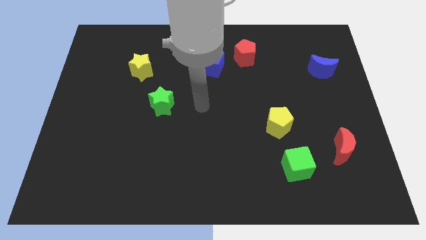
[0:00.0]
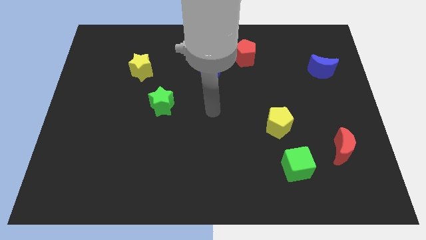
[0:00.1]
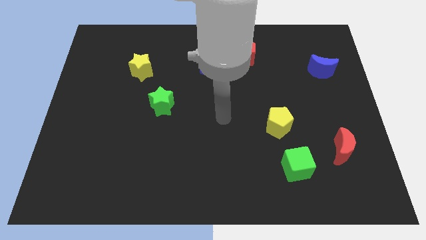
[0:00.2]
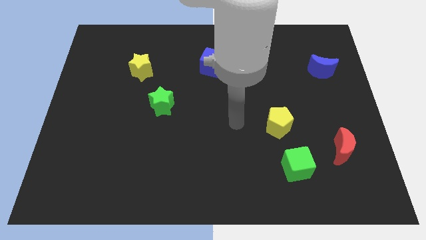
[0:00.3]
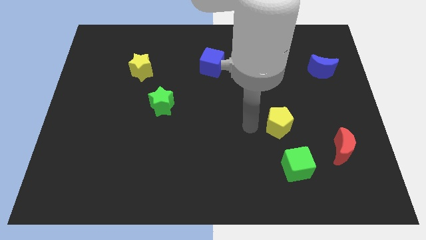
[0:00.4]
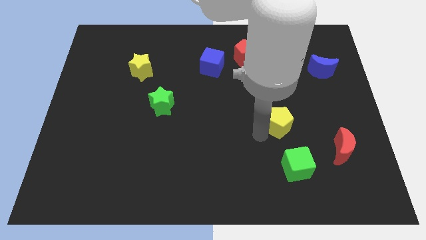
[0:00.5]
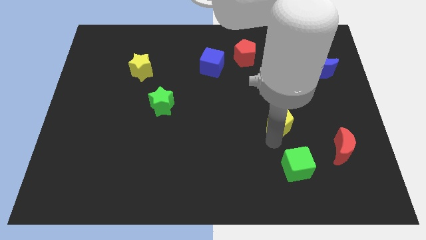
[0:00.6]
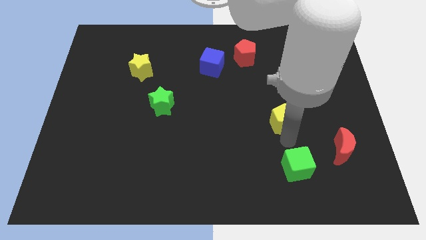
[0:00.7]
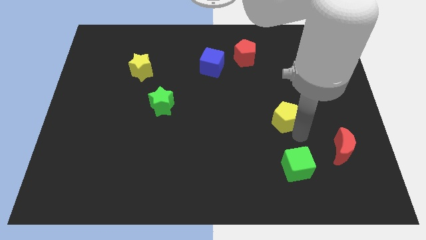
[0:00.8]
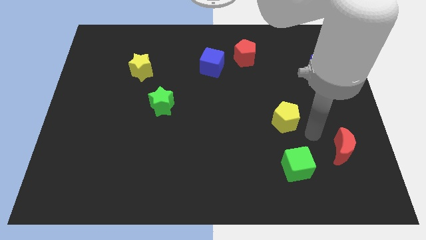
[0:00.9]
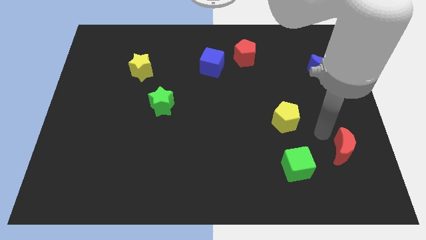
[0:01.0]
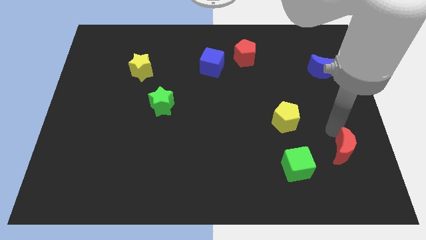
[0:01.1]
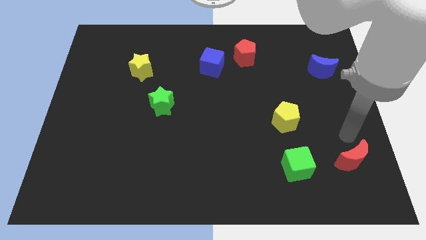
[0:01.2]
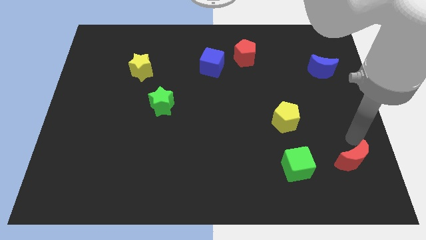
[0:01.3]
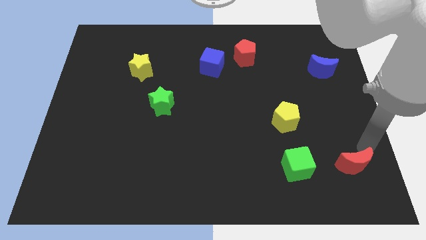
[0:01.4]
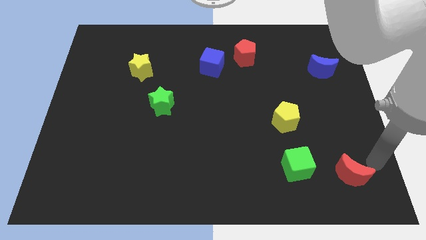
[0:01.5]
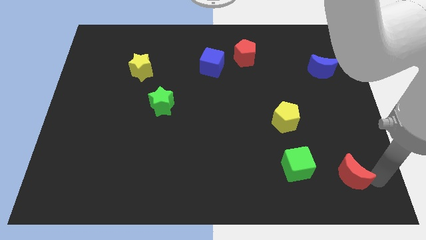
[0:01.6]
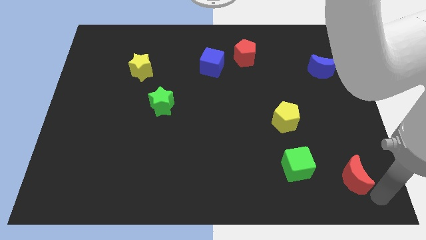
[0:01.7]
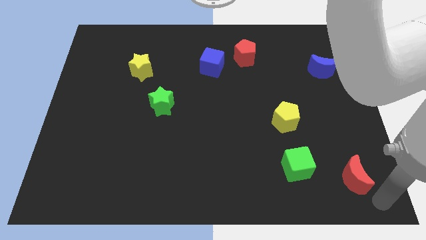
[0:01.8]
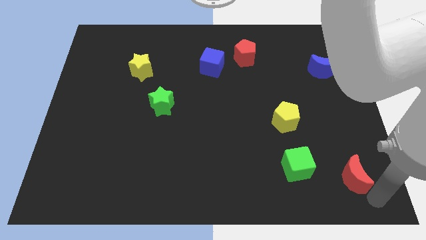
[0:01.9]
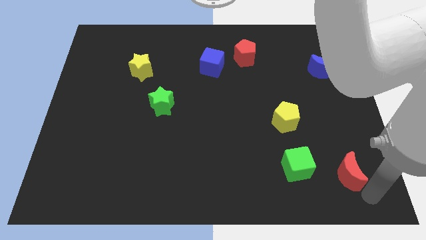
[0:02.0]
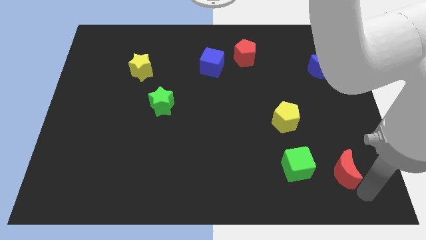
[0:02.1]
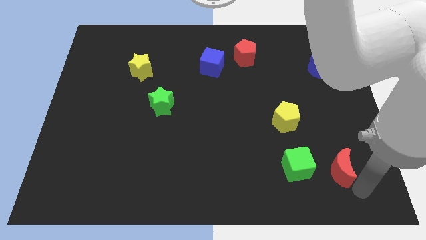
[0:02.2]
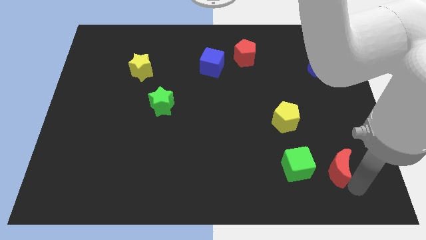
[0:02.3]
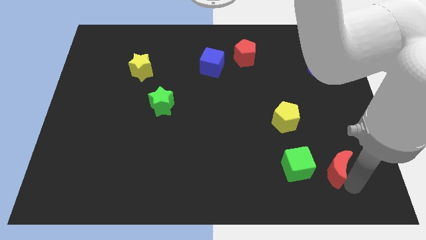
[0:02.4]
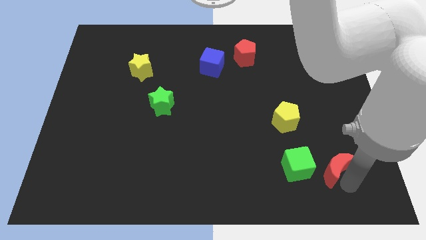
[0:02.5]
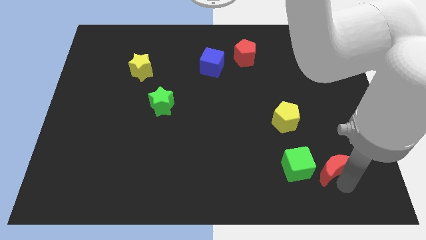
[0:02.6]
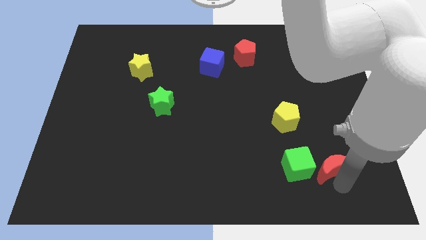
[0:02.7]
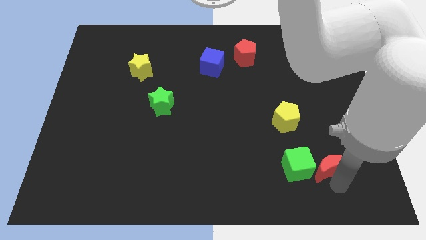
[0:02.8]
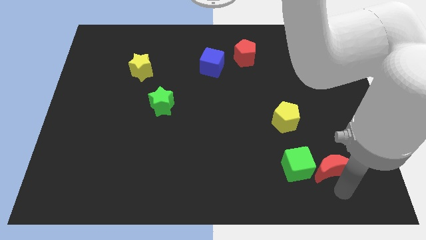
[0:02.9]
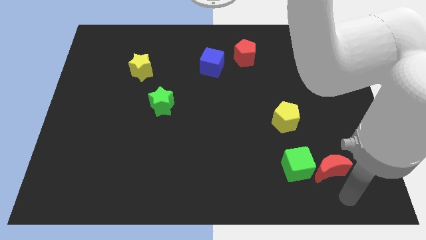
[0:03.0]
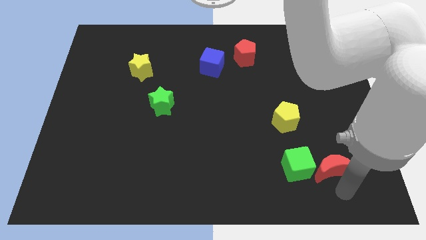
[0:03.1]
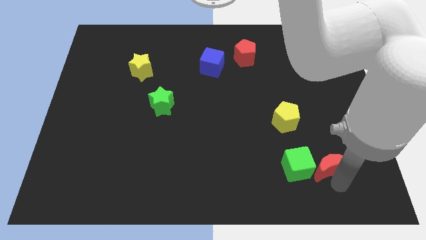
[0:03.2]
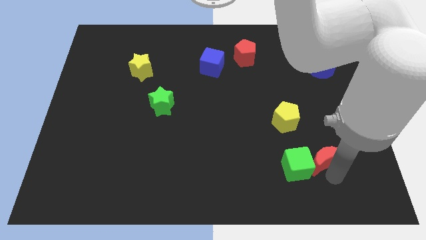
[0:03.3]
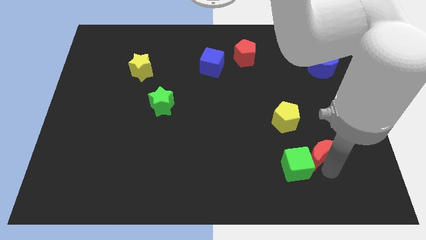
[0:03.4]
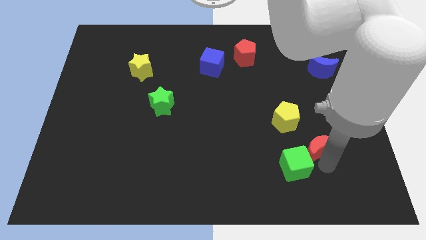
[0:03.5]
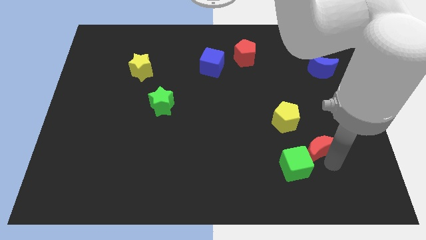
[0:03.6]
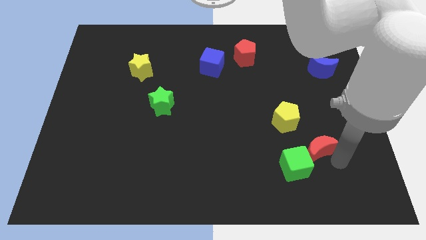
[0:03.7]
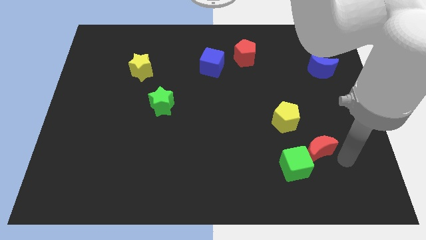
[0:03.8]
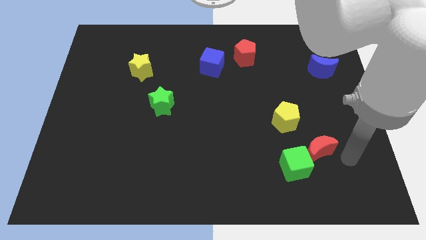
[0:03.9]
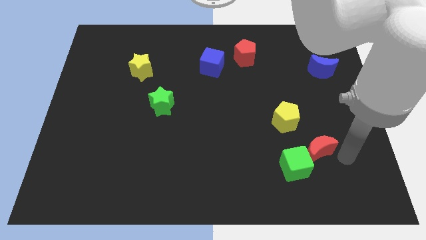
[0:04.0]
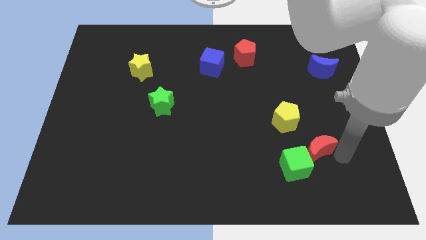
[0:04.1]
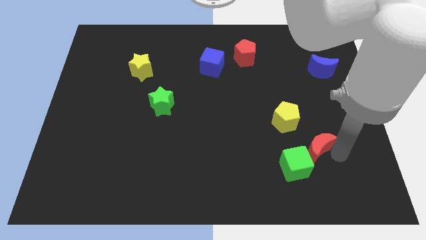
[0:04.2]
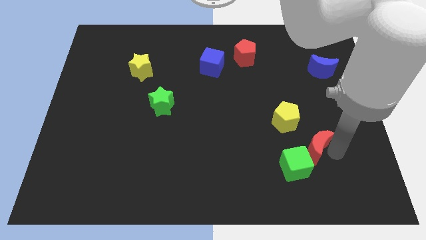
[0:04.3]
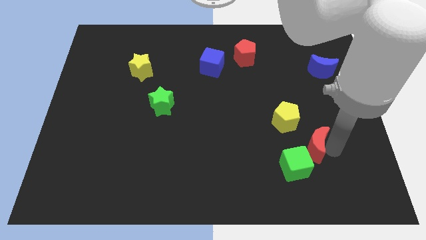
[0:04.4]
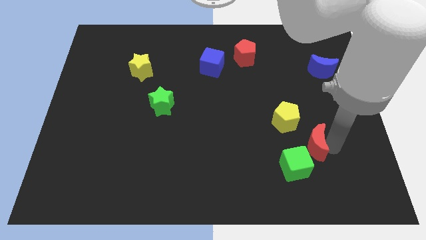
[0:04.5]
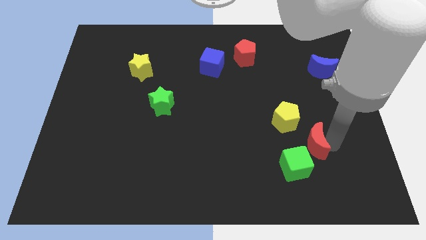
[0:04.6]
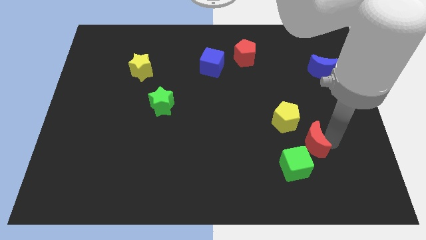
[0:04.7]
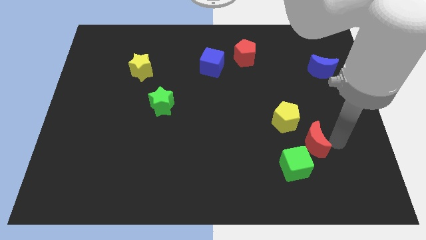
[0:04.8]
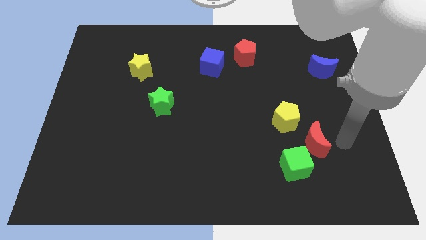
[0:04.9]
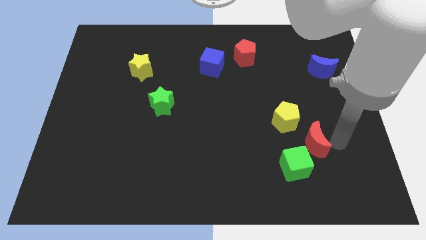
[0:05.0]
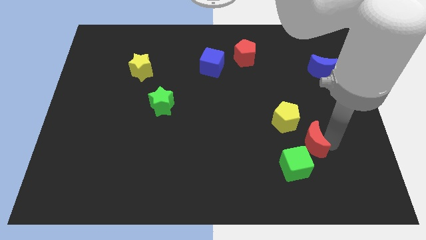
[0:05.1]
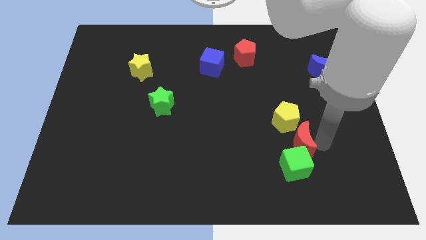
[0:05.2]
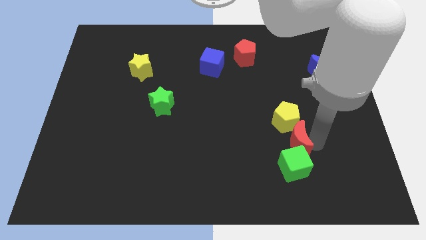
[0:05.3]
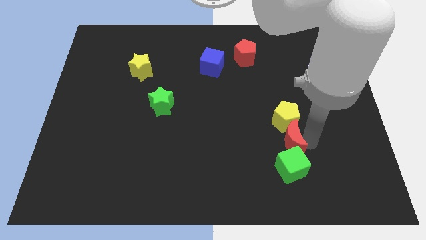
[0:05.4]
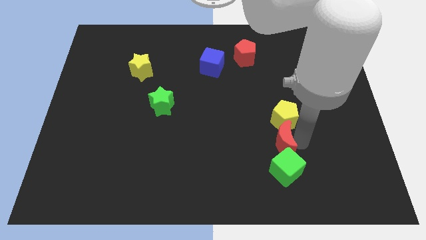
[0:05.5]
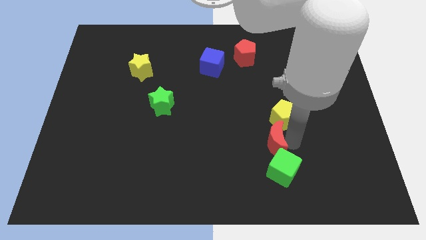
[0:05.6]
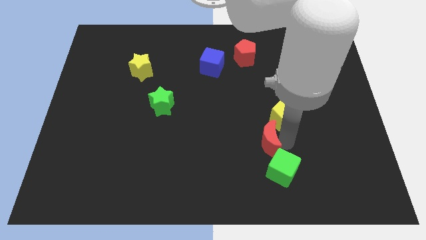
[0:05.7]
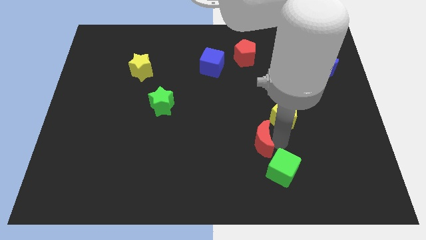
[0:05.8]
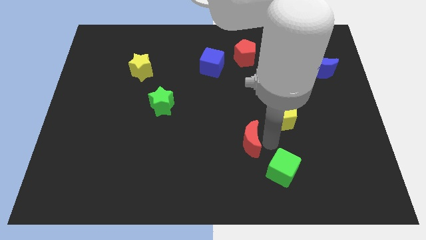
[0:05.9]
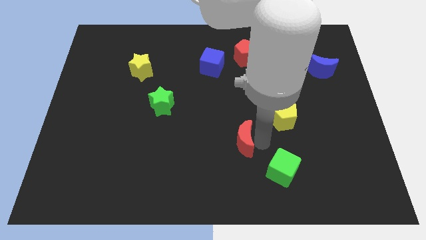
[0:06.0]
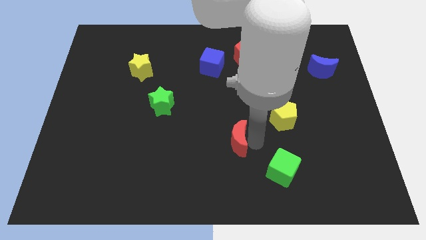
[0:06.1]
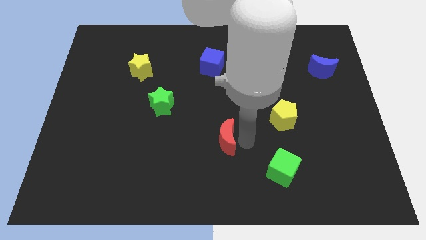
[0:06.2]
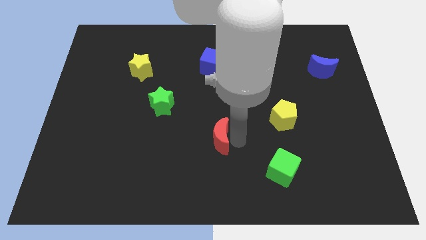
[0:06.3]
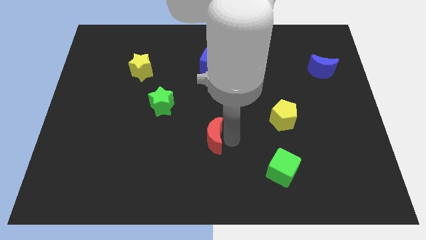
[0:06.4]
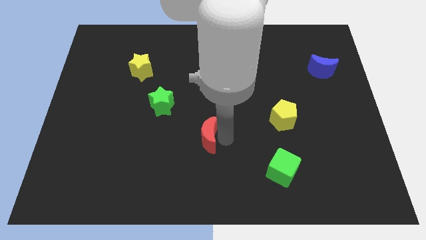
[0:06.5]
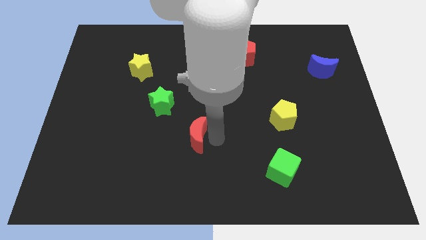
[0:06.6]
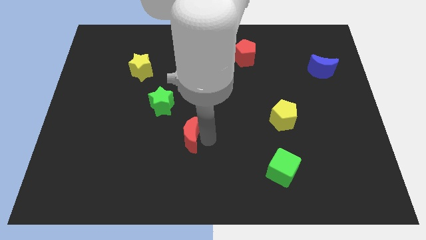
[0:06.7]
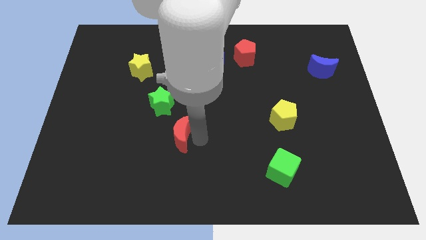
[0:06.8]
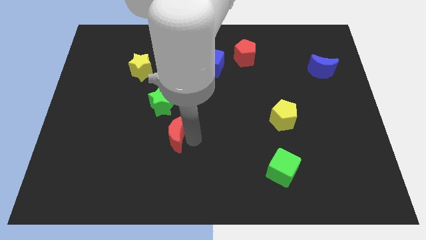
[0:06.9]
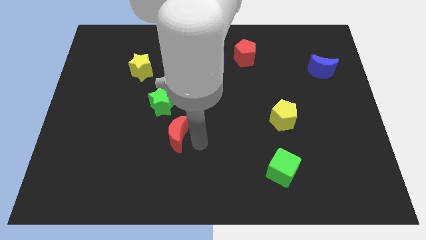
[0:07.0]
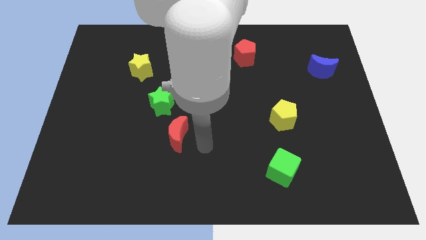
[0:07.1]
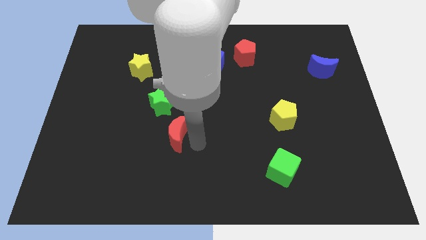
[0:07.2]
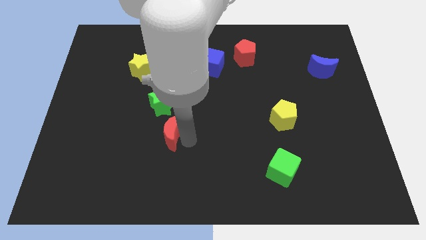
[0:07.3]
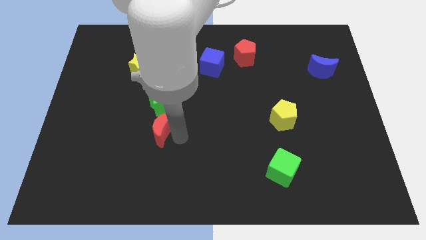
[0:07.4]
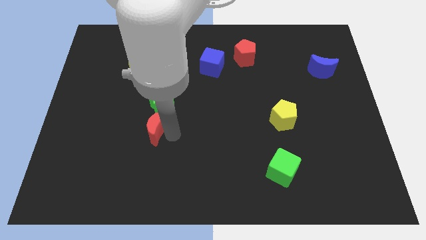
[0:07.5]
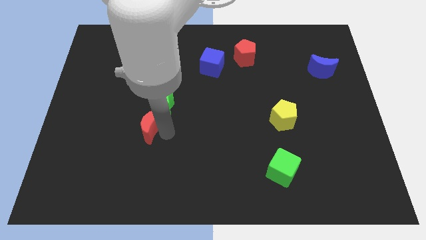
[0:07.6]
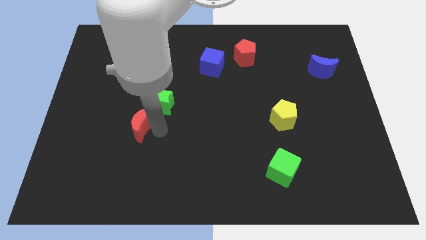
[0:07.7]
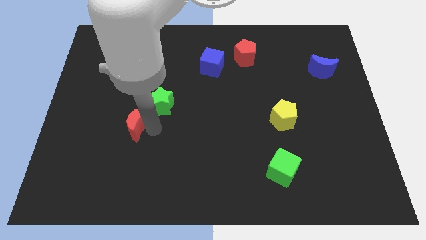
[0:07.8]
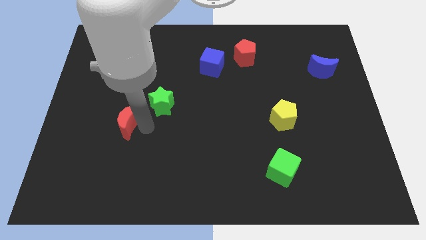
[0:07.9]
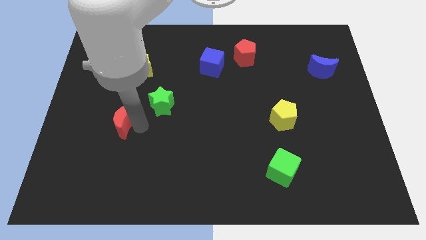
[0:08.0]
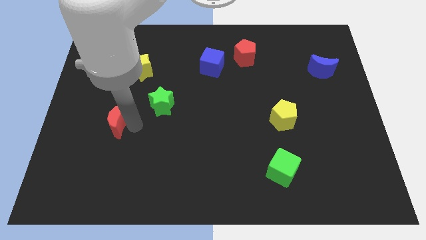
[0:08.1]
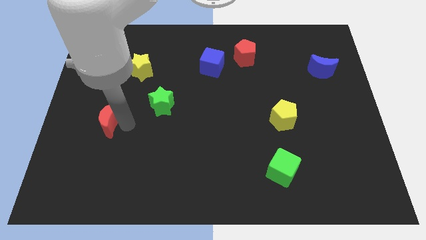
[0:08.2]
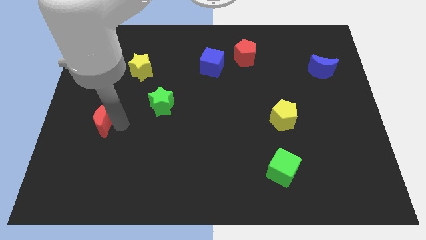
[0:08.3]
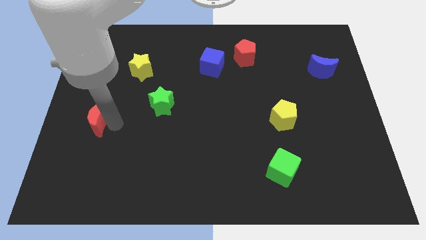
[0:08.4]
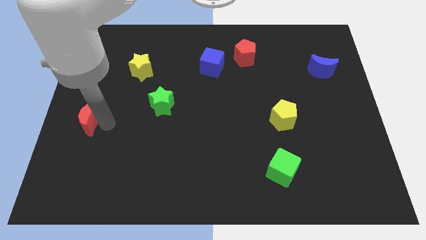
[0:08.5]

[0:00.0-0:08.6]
push the red moon to the left side of the board
